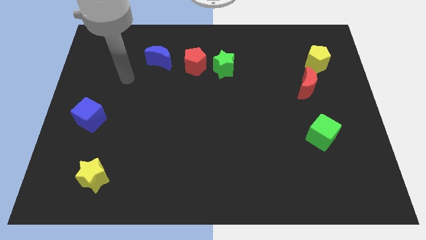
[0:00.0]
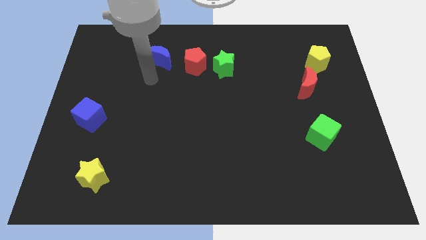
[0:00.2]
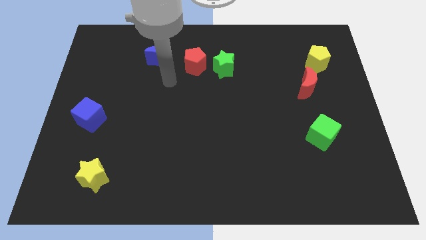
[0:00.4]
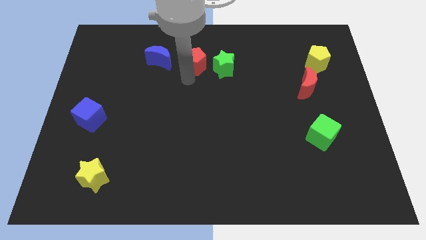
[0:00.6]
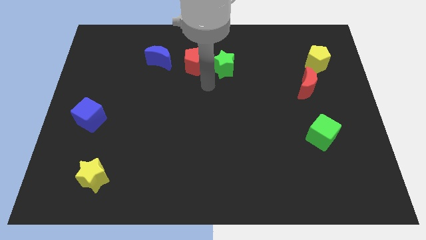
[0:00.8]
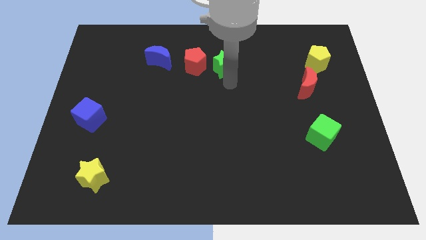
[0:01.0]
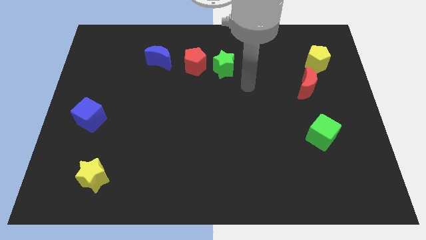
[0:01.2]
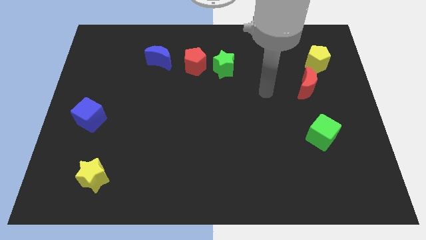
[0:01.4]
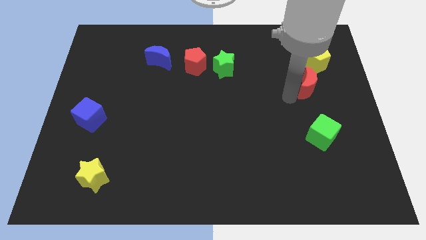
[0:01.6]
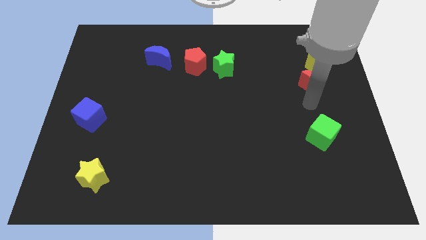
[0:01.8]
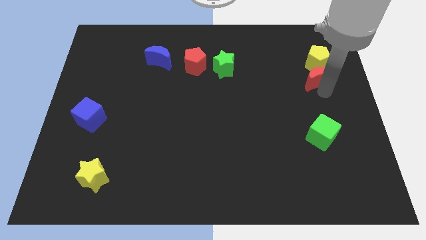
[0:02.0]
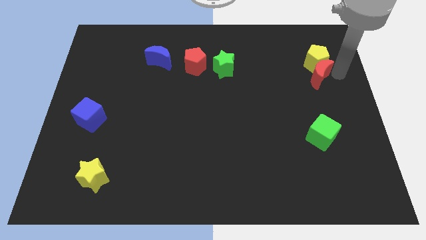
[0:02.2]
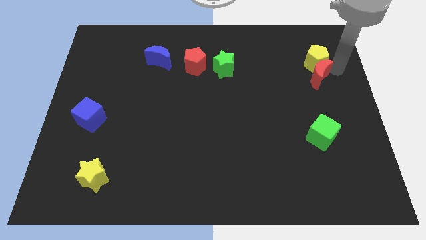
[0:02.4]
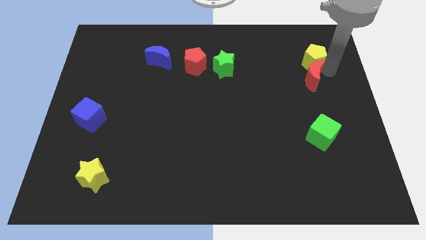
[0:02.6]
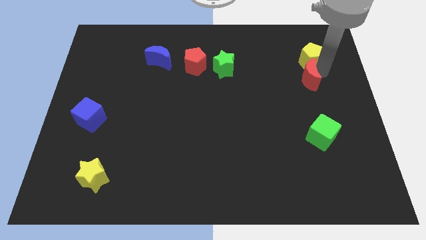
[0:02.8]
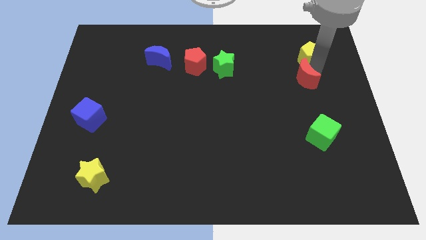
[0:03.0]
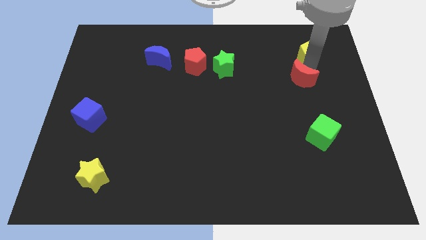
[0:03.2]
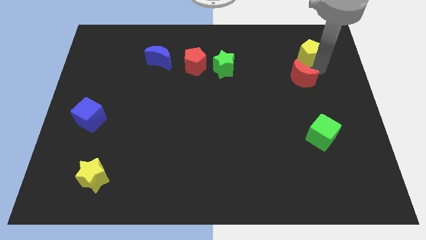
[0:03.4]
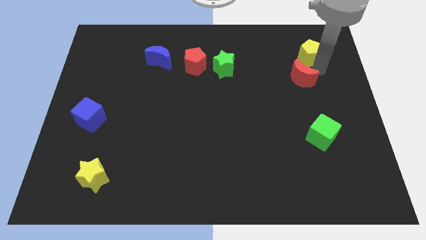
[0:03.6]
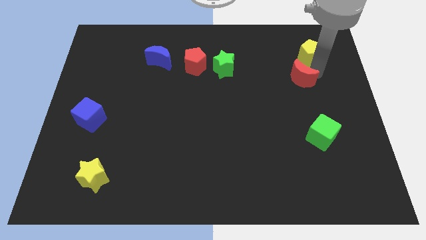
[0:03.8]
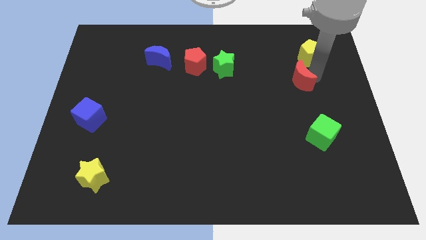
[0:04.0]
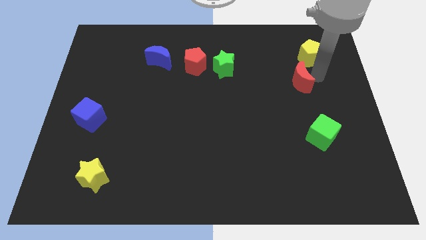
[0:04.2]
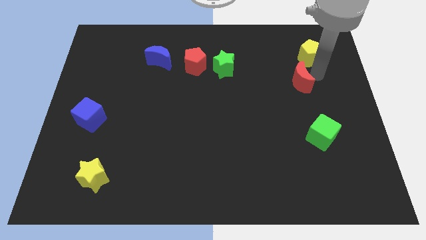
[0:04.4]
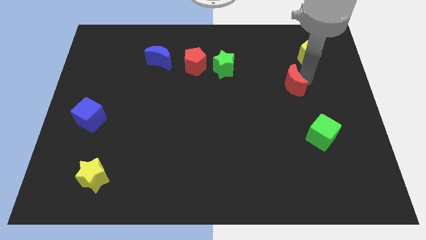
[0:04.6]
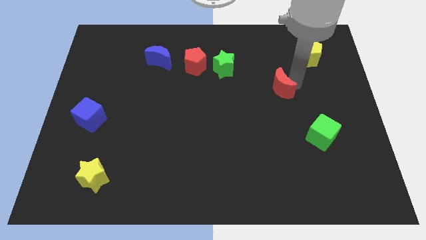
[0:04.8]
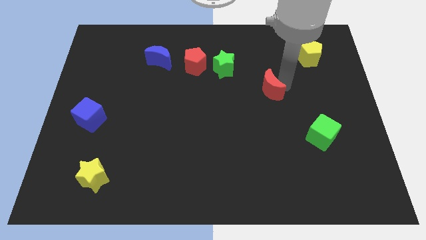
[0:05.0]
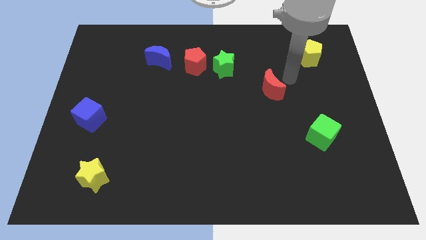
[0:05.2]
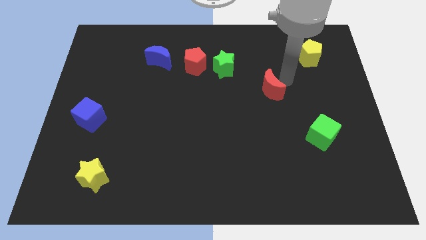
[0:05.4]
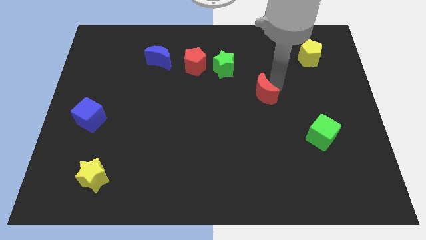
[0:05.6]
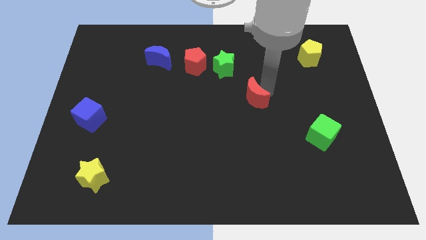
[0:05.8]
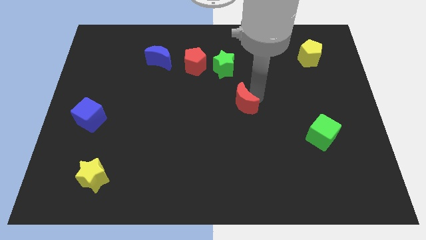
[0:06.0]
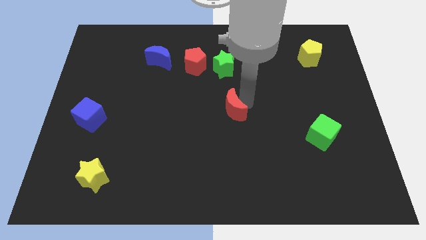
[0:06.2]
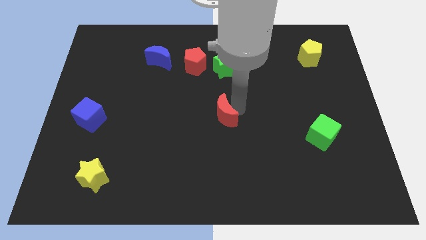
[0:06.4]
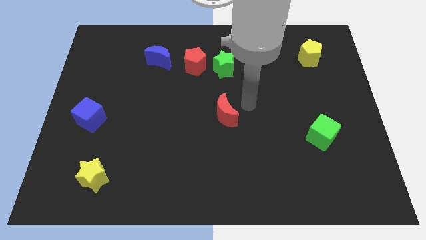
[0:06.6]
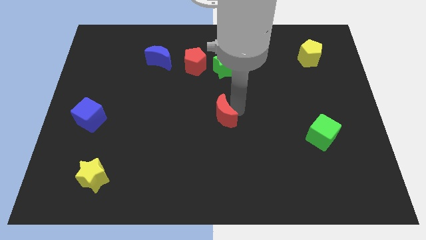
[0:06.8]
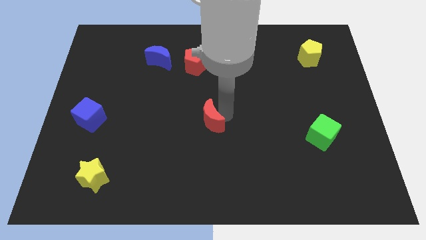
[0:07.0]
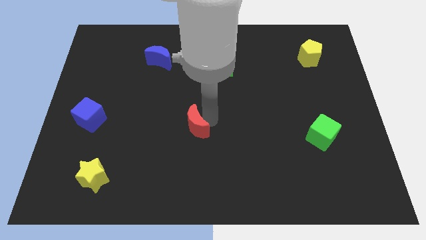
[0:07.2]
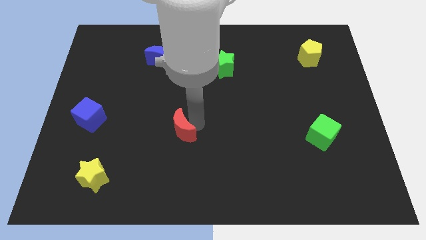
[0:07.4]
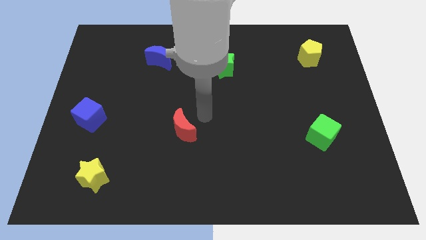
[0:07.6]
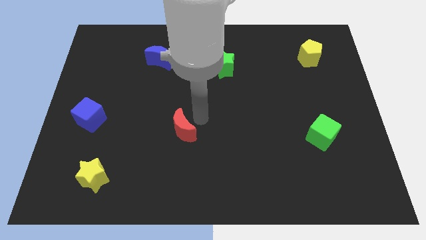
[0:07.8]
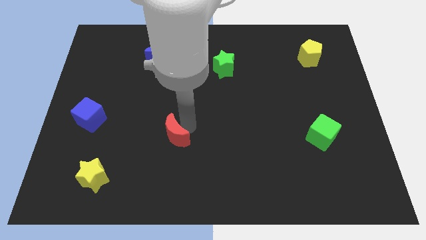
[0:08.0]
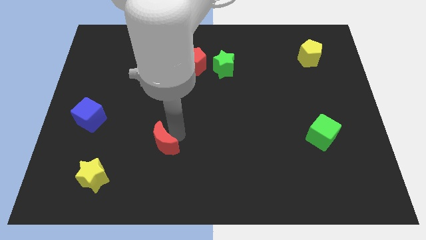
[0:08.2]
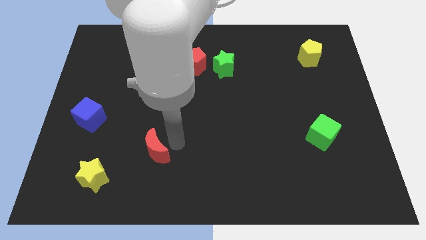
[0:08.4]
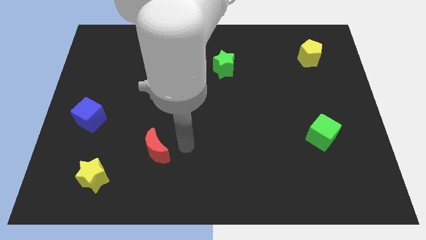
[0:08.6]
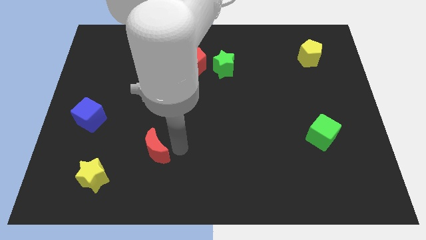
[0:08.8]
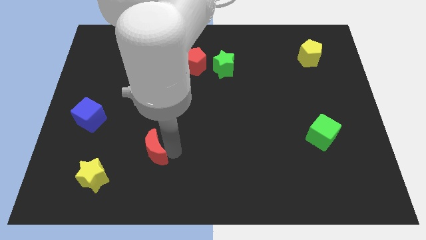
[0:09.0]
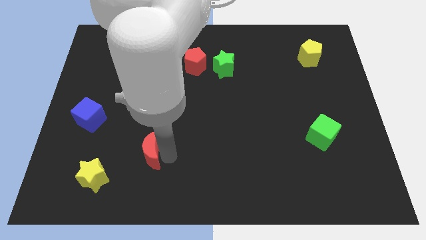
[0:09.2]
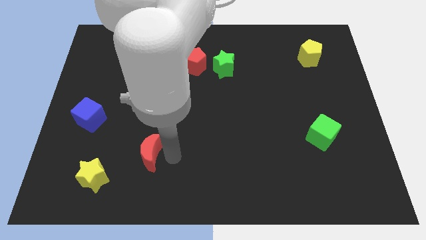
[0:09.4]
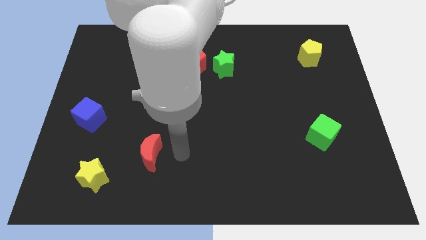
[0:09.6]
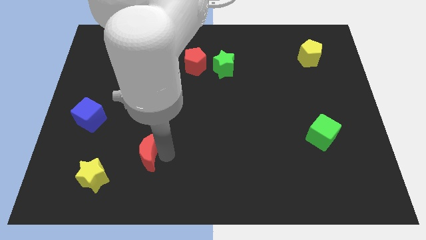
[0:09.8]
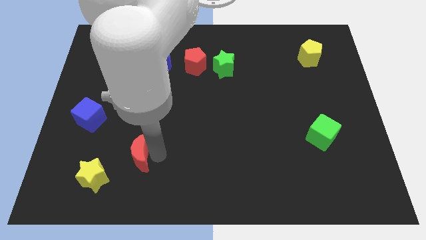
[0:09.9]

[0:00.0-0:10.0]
move the red moon to the top right side of the yellow star

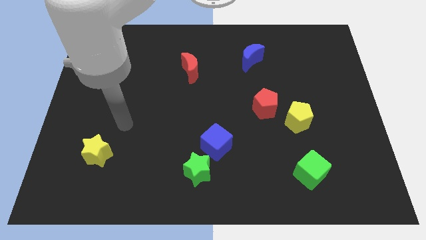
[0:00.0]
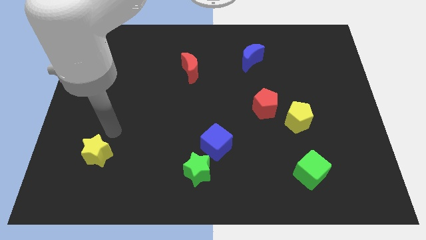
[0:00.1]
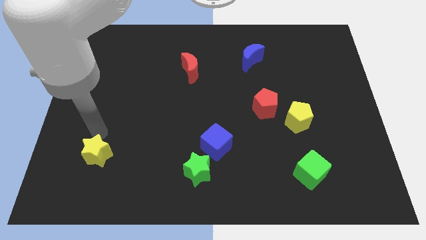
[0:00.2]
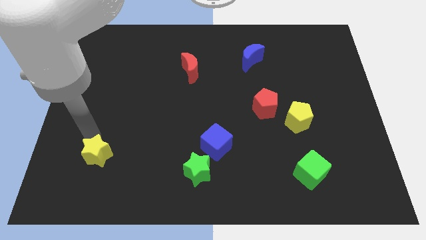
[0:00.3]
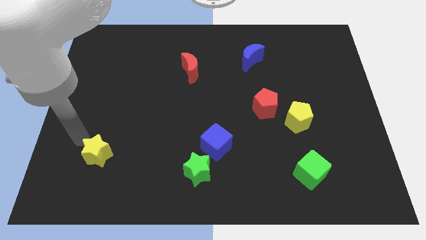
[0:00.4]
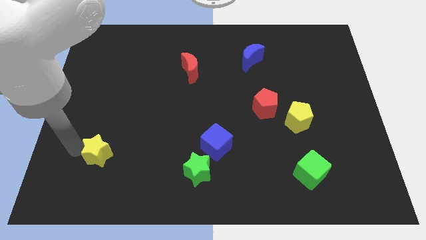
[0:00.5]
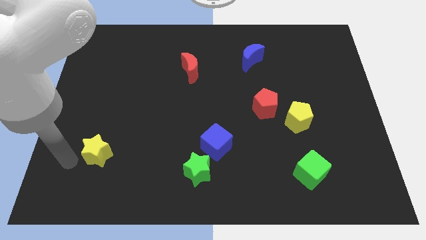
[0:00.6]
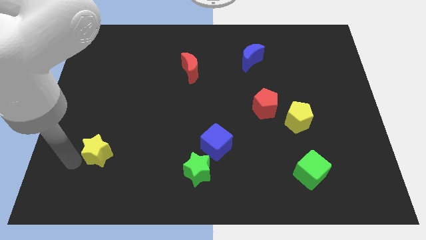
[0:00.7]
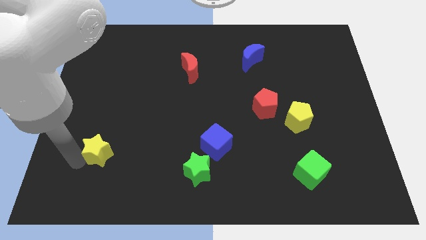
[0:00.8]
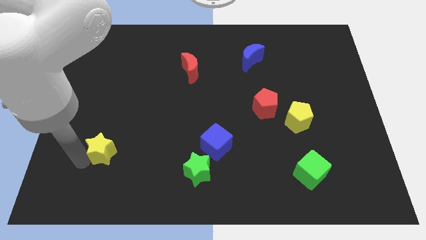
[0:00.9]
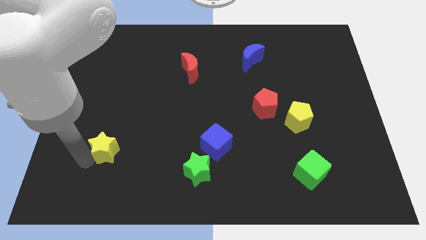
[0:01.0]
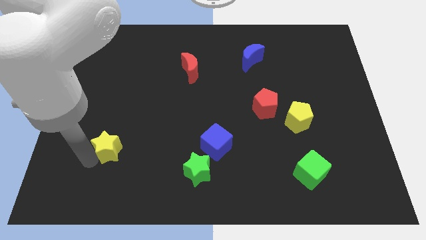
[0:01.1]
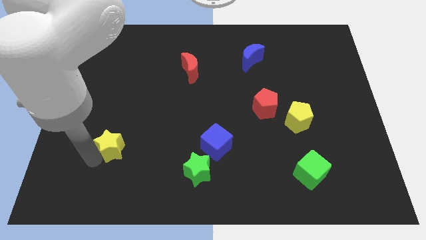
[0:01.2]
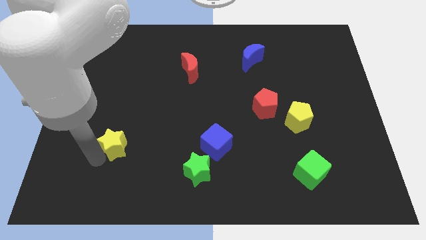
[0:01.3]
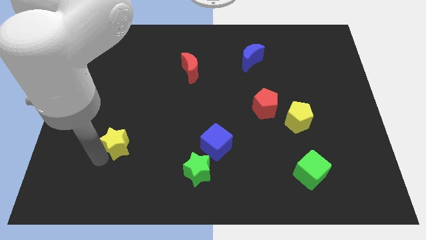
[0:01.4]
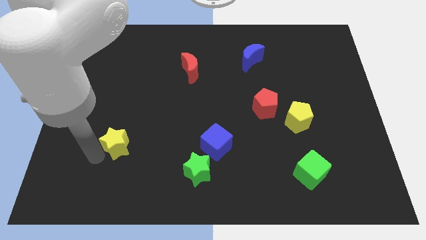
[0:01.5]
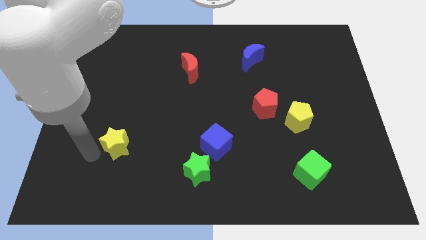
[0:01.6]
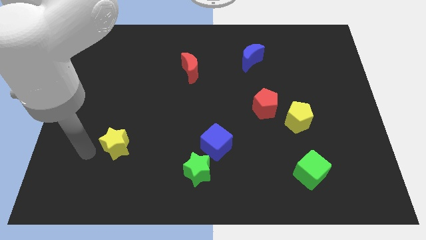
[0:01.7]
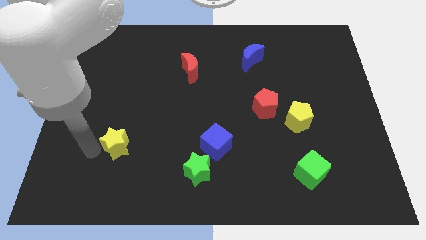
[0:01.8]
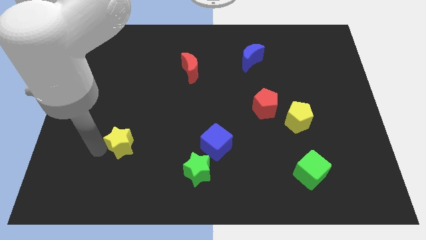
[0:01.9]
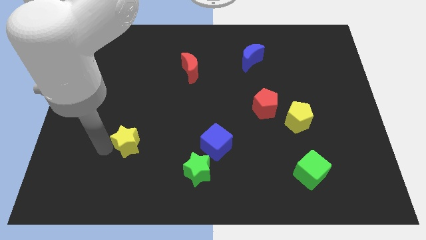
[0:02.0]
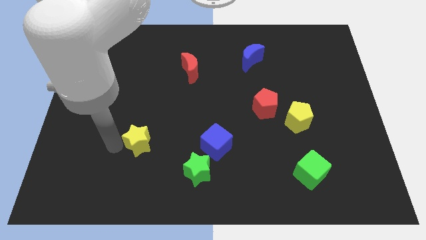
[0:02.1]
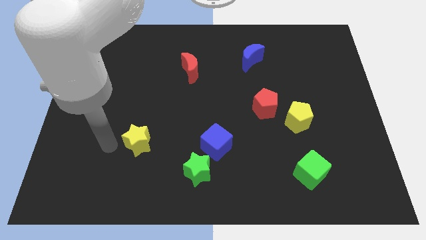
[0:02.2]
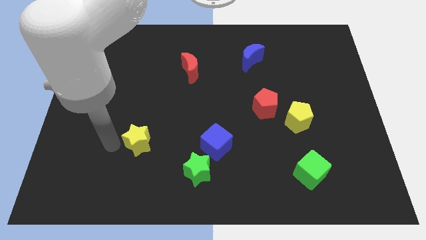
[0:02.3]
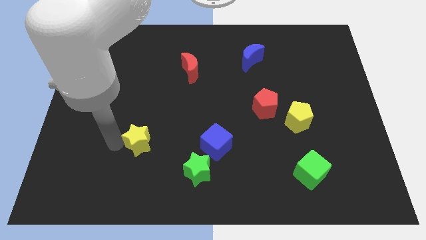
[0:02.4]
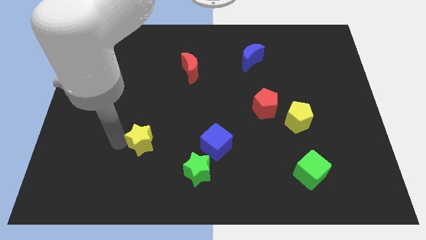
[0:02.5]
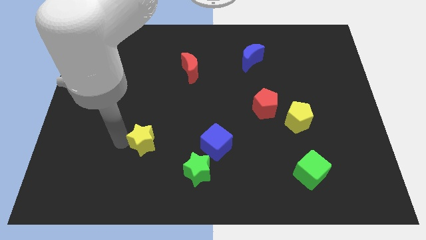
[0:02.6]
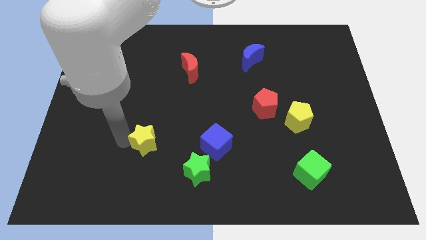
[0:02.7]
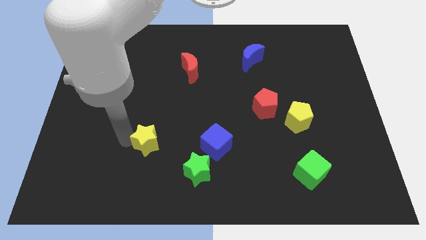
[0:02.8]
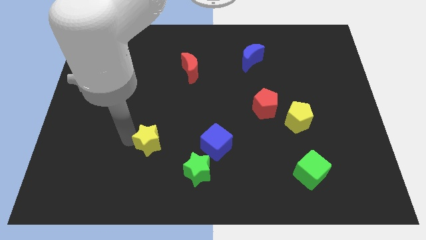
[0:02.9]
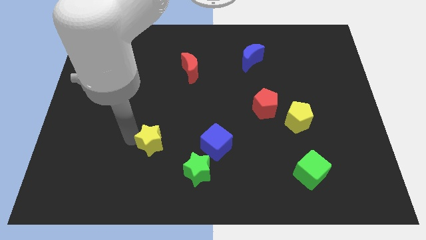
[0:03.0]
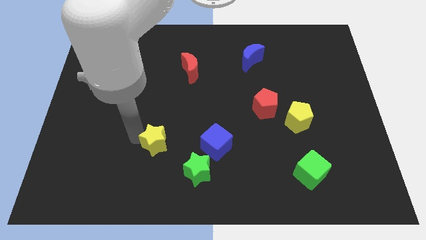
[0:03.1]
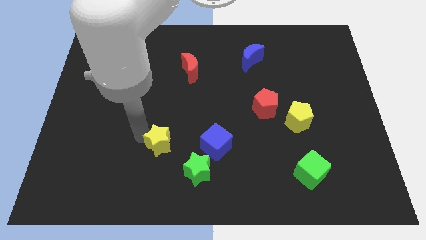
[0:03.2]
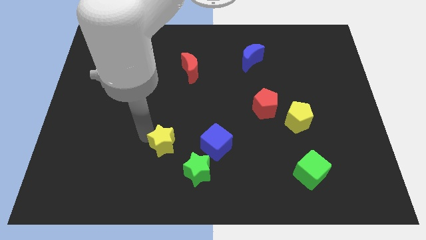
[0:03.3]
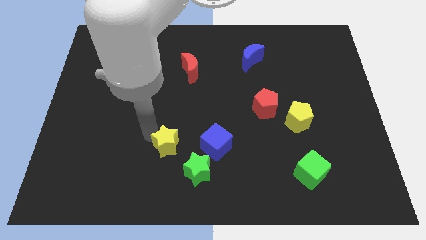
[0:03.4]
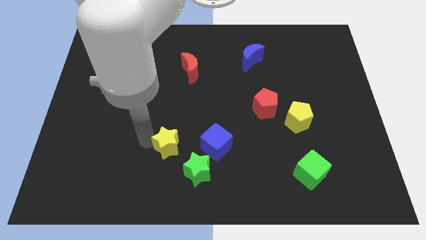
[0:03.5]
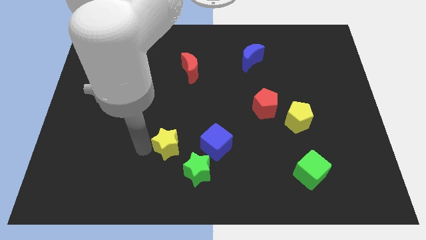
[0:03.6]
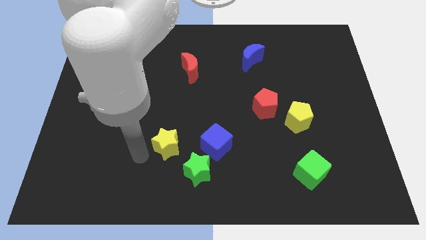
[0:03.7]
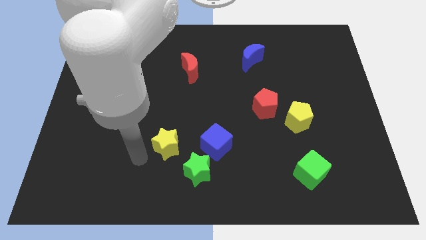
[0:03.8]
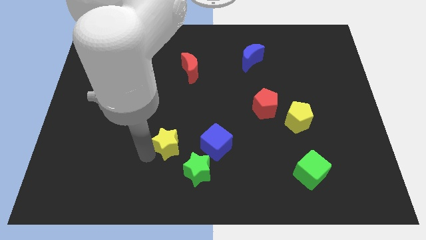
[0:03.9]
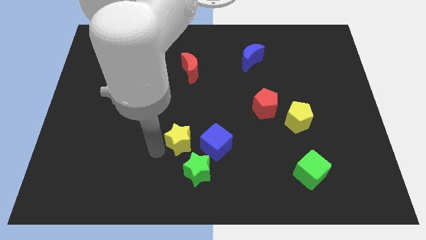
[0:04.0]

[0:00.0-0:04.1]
push the yellow star to the top side of the green star
